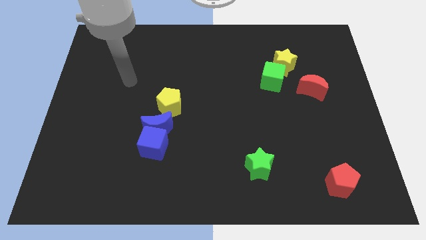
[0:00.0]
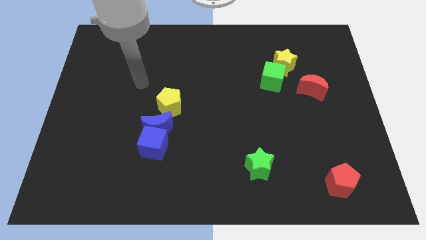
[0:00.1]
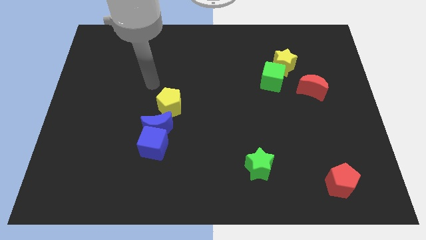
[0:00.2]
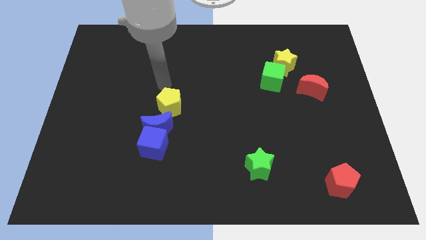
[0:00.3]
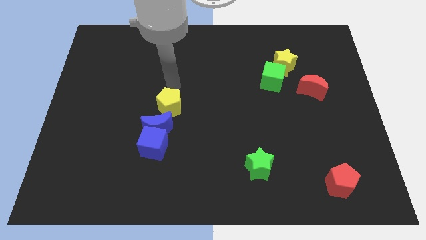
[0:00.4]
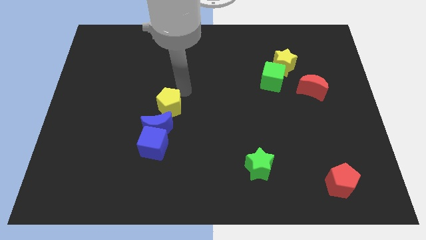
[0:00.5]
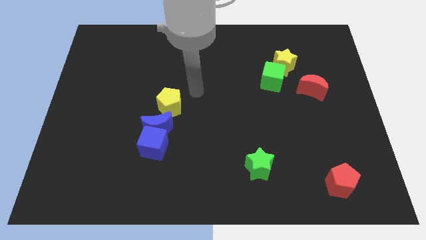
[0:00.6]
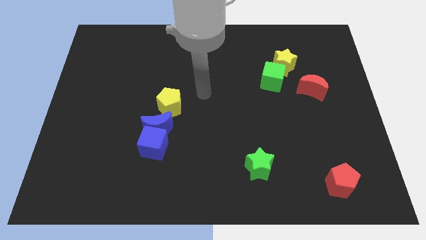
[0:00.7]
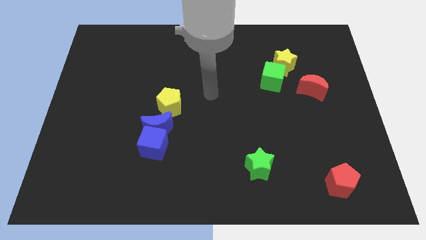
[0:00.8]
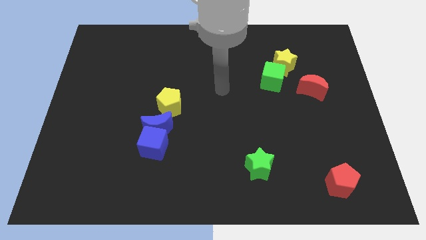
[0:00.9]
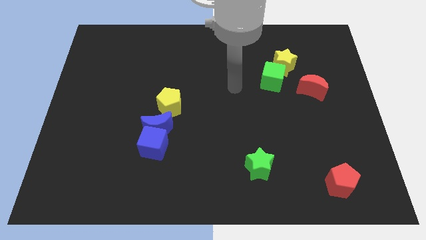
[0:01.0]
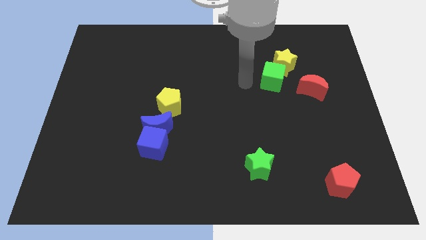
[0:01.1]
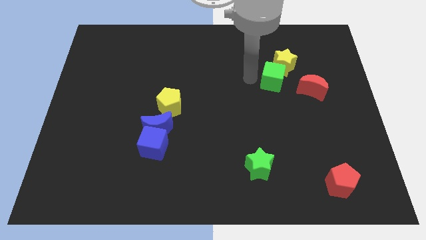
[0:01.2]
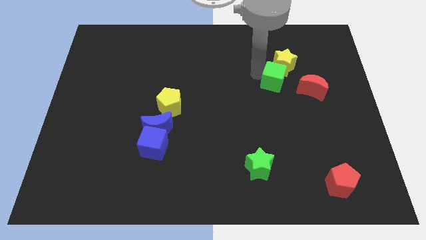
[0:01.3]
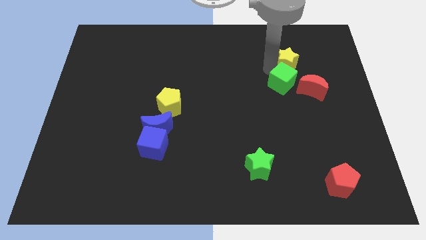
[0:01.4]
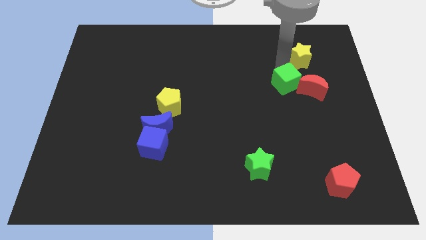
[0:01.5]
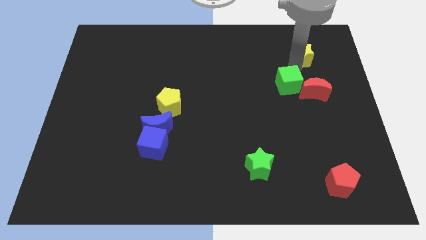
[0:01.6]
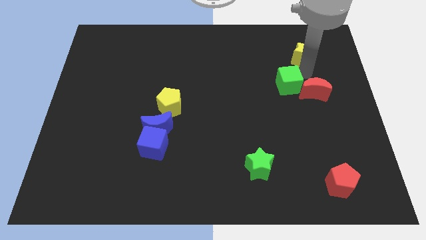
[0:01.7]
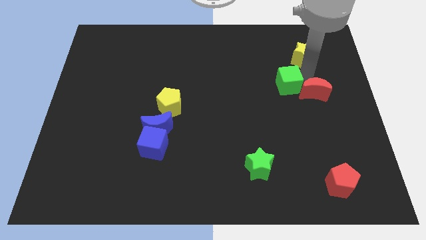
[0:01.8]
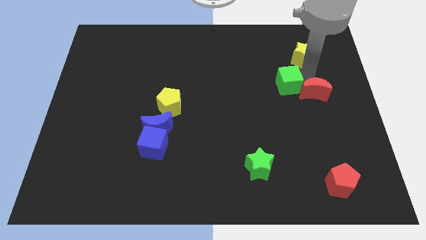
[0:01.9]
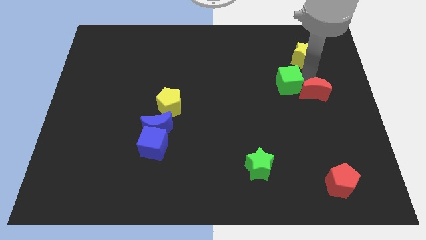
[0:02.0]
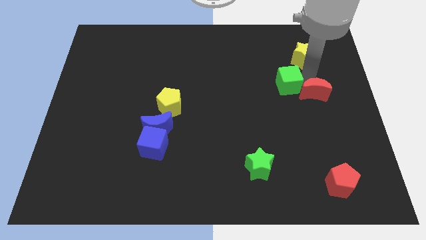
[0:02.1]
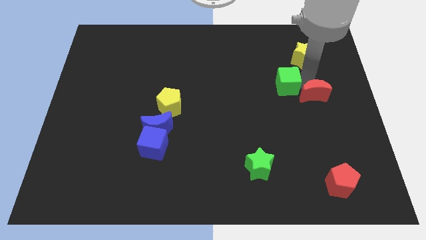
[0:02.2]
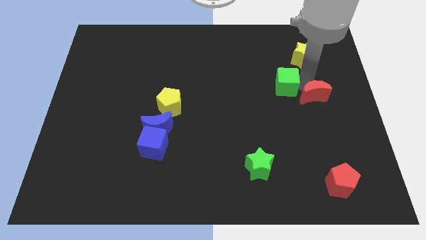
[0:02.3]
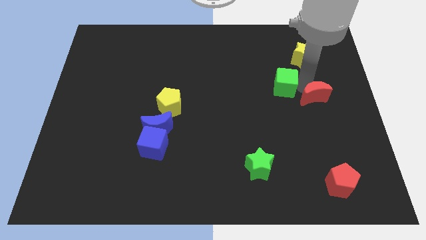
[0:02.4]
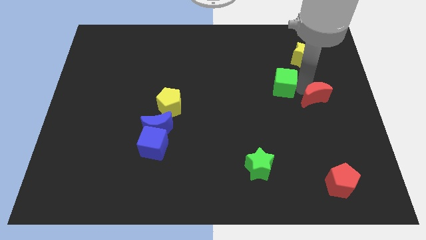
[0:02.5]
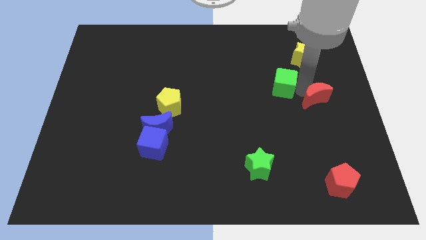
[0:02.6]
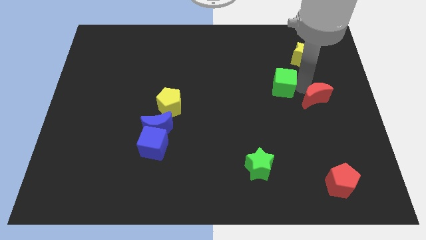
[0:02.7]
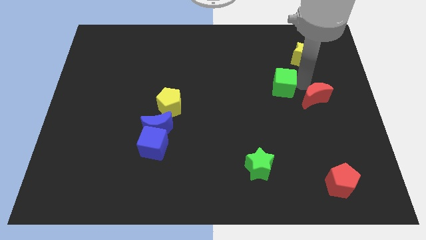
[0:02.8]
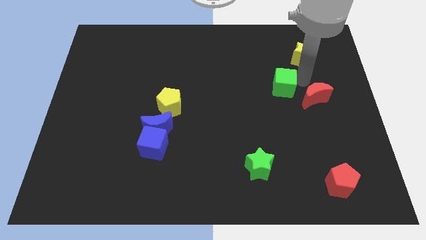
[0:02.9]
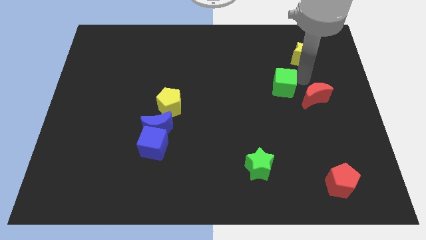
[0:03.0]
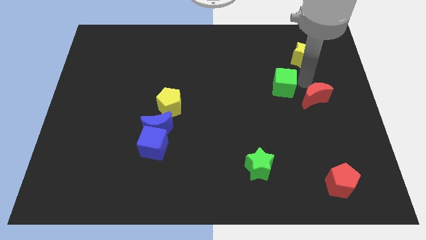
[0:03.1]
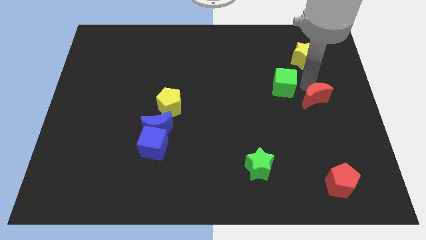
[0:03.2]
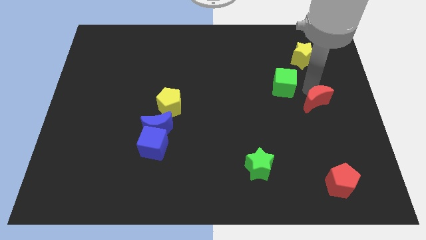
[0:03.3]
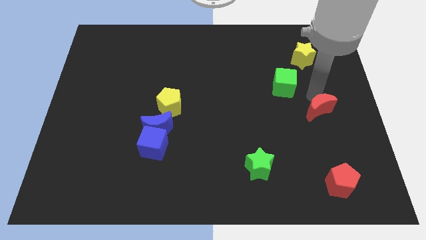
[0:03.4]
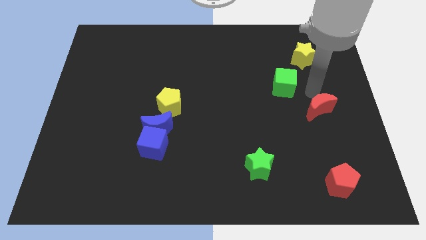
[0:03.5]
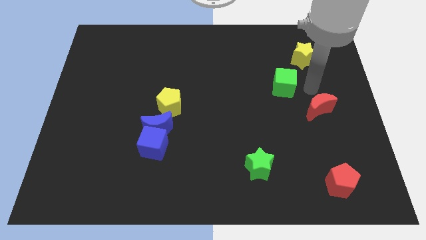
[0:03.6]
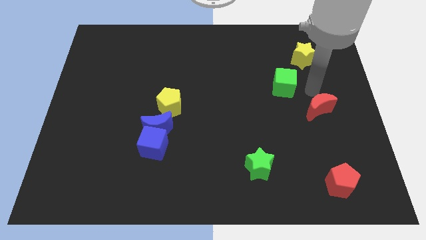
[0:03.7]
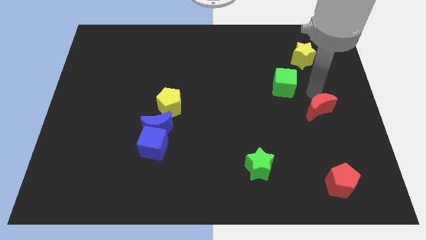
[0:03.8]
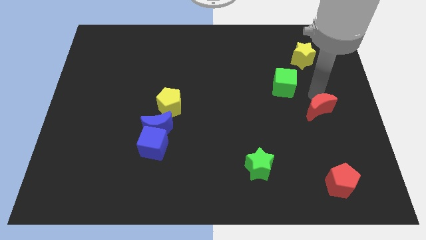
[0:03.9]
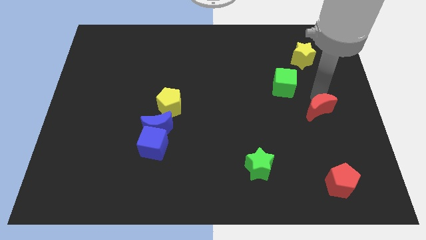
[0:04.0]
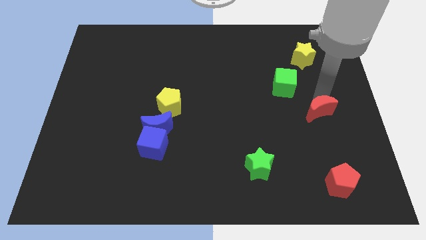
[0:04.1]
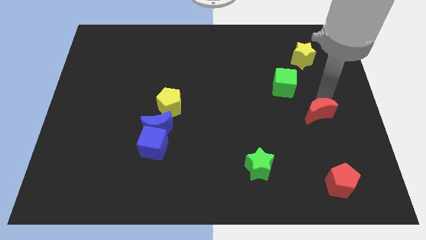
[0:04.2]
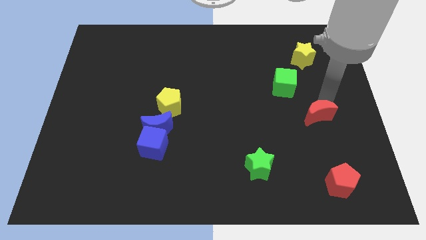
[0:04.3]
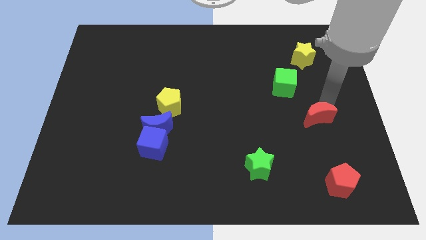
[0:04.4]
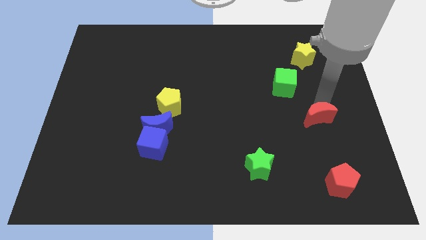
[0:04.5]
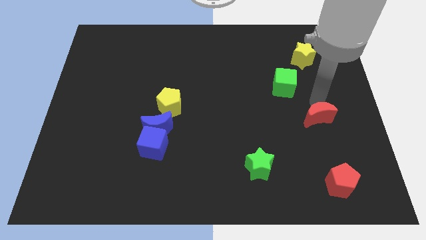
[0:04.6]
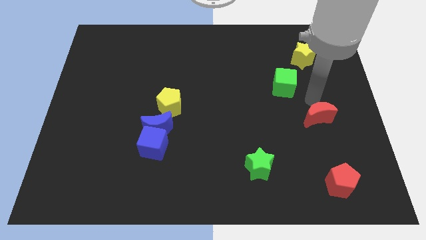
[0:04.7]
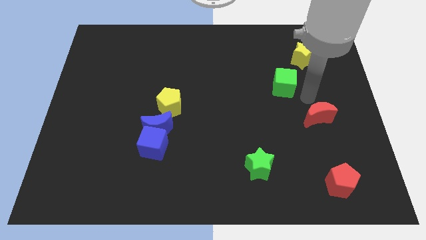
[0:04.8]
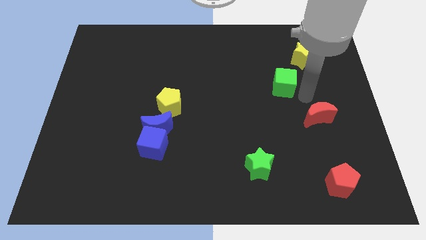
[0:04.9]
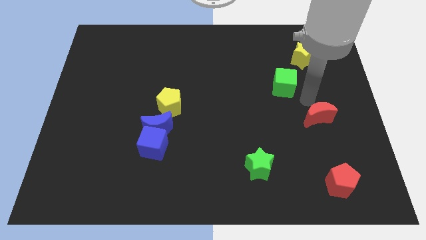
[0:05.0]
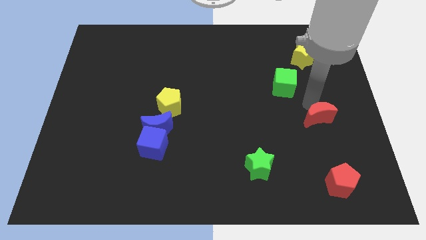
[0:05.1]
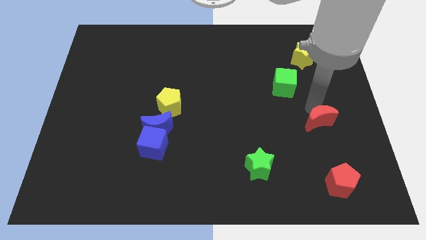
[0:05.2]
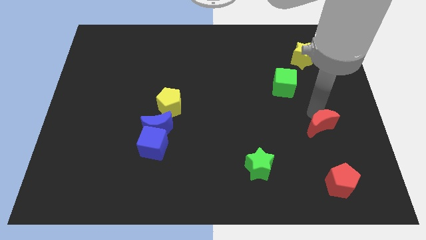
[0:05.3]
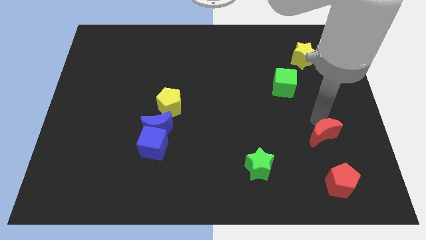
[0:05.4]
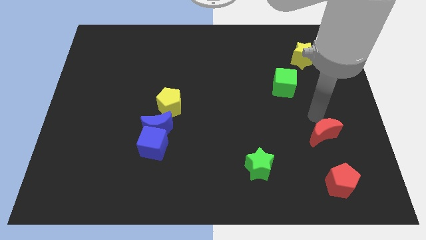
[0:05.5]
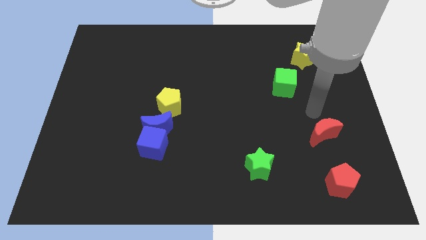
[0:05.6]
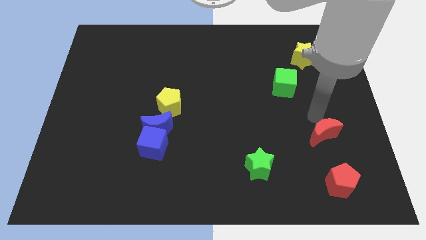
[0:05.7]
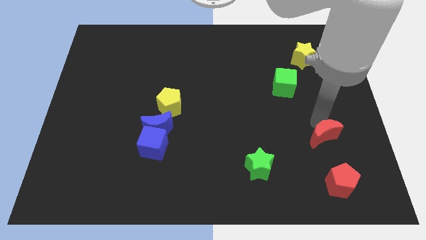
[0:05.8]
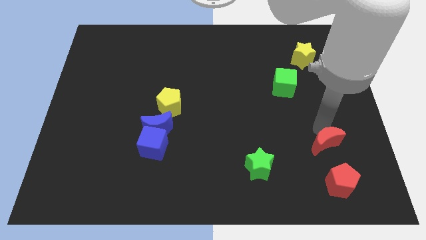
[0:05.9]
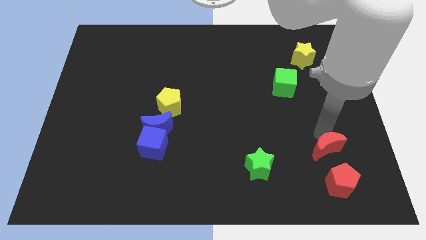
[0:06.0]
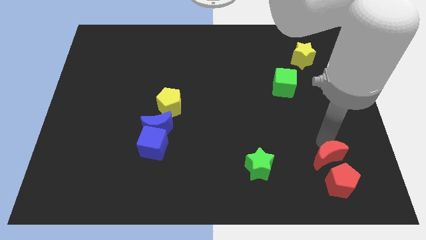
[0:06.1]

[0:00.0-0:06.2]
push the red moon to the red pentagon
